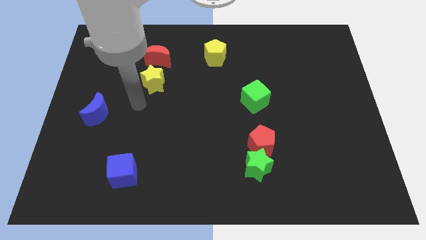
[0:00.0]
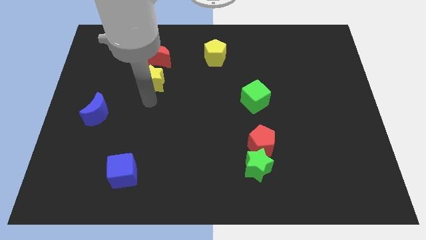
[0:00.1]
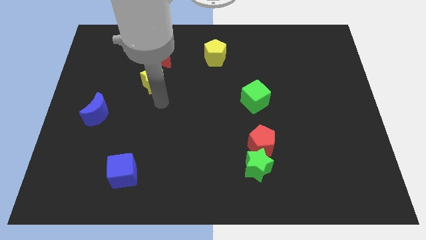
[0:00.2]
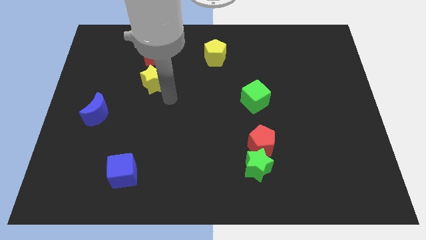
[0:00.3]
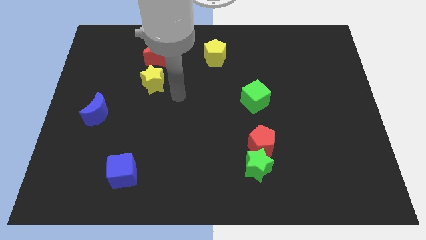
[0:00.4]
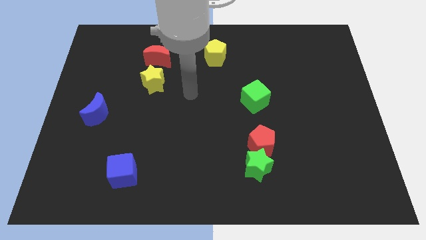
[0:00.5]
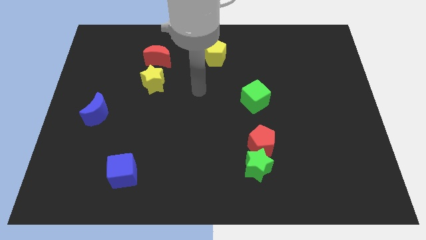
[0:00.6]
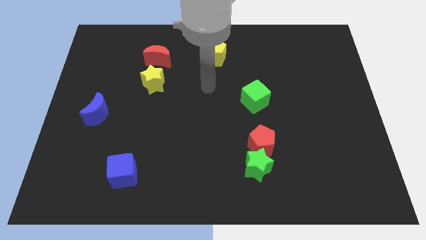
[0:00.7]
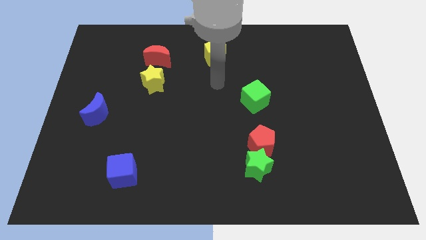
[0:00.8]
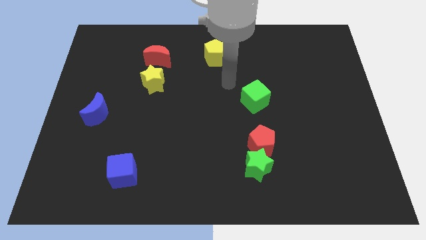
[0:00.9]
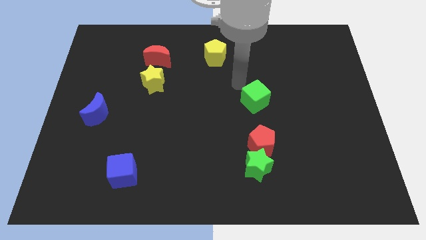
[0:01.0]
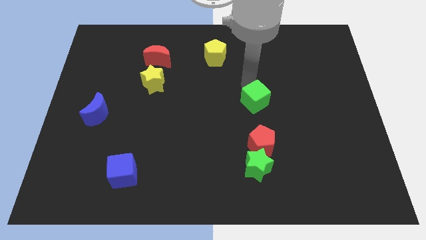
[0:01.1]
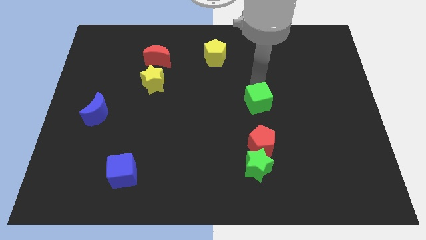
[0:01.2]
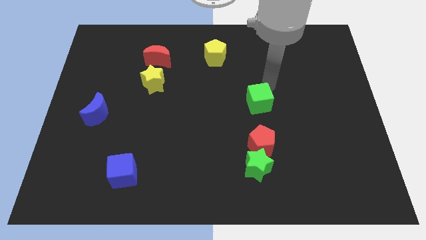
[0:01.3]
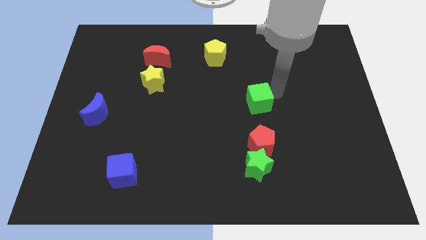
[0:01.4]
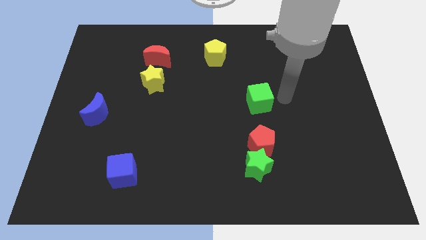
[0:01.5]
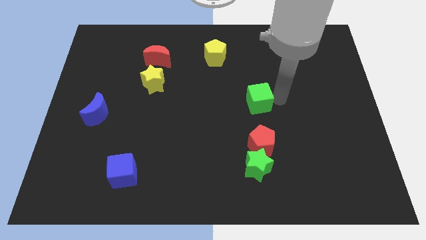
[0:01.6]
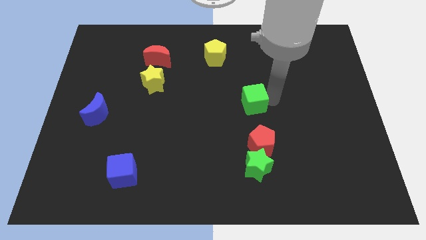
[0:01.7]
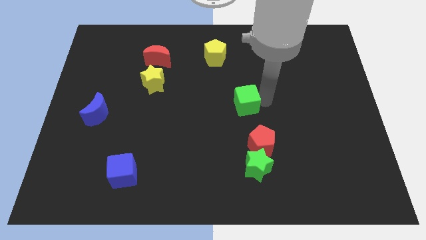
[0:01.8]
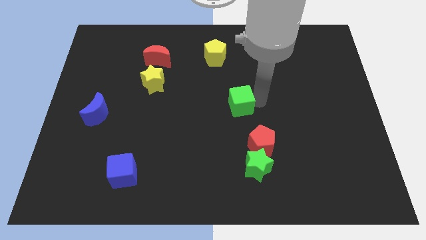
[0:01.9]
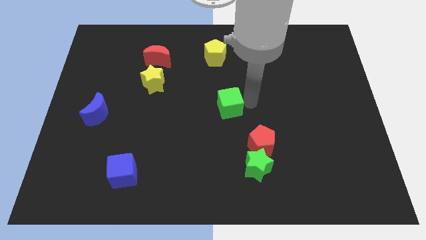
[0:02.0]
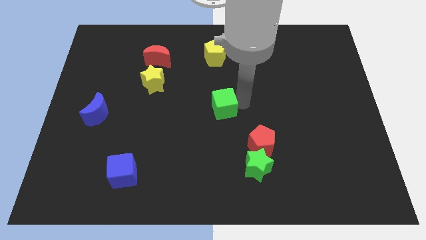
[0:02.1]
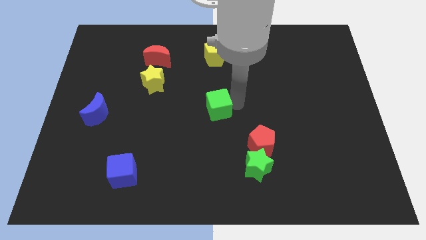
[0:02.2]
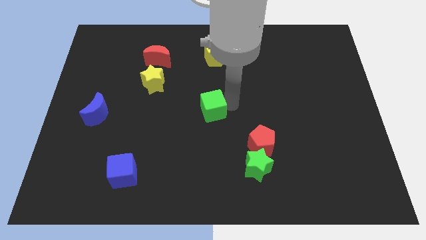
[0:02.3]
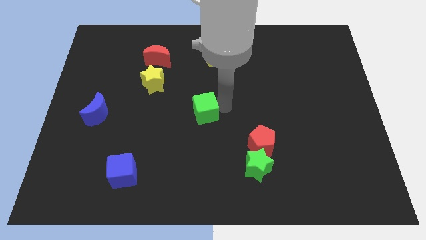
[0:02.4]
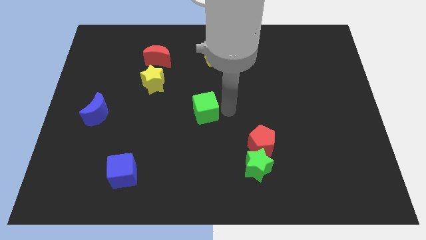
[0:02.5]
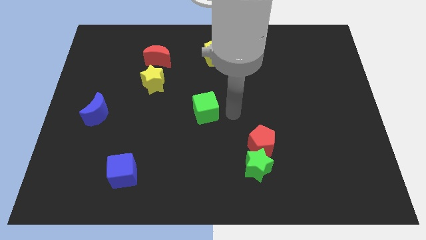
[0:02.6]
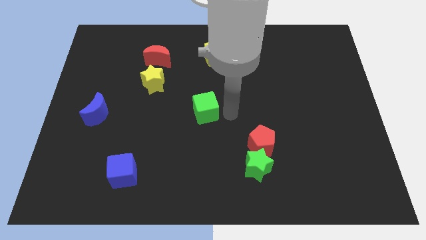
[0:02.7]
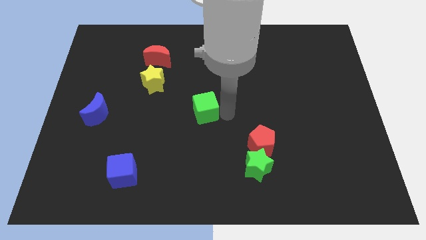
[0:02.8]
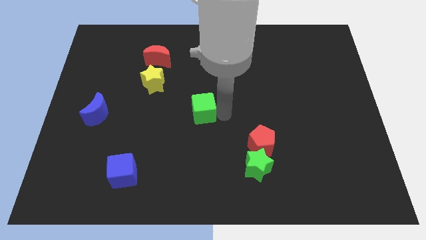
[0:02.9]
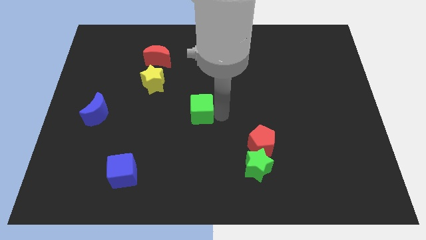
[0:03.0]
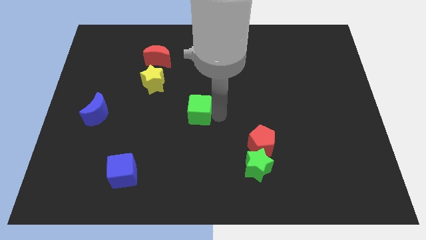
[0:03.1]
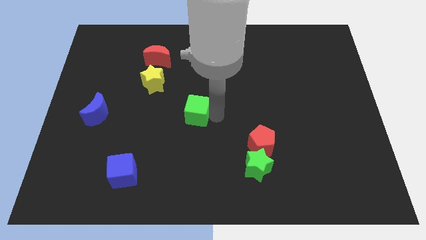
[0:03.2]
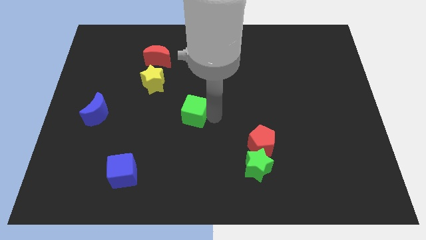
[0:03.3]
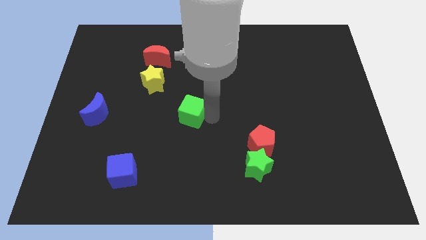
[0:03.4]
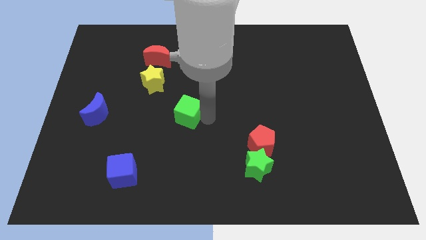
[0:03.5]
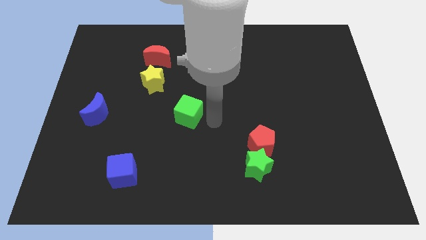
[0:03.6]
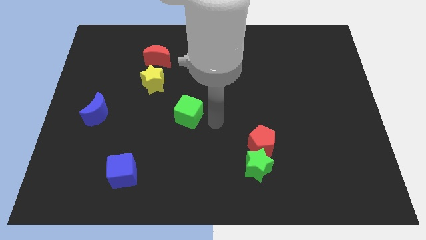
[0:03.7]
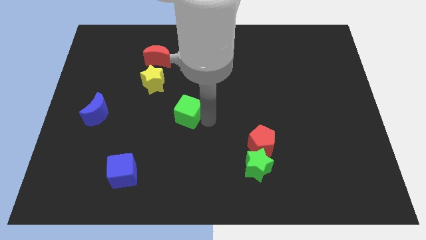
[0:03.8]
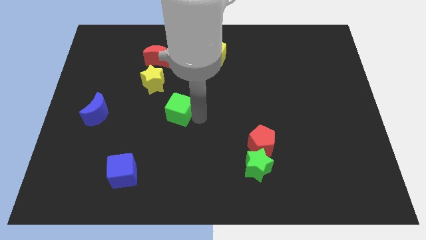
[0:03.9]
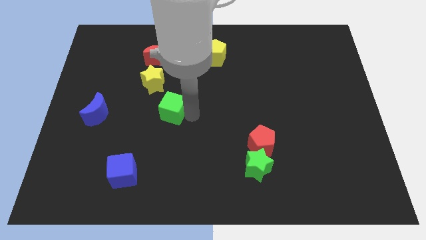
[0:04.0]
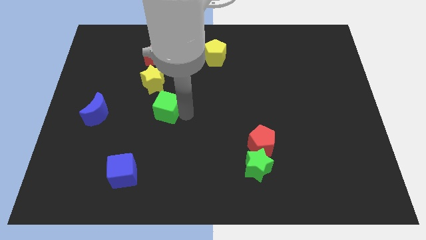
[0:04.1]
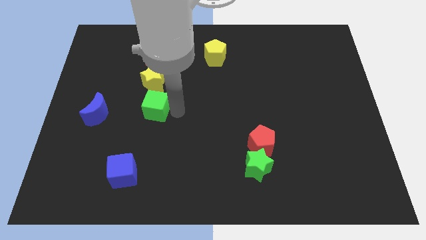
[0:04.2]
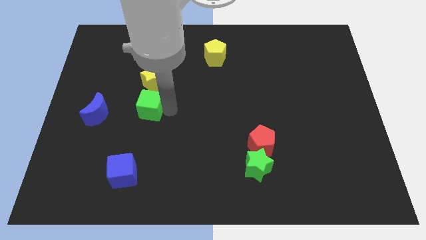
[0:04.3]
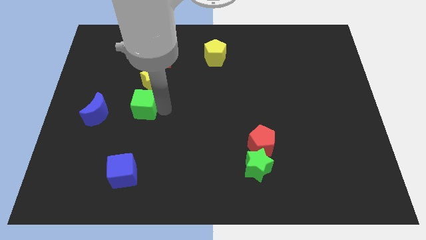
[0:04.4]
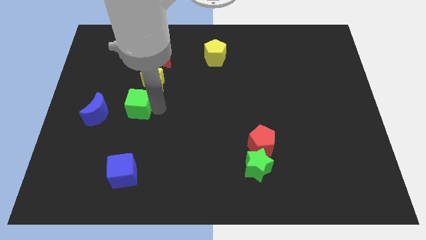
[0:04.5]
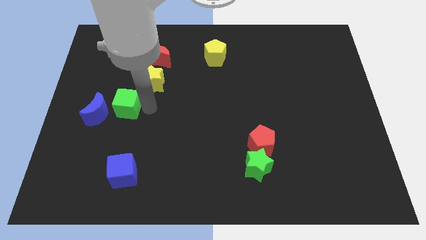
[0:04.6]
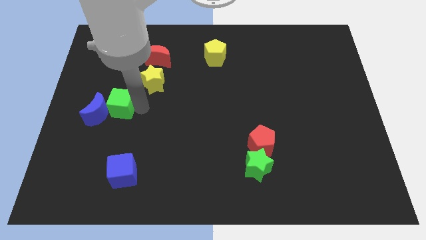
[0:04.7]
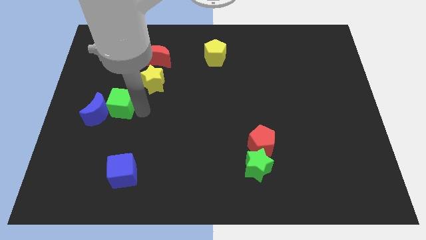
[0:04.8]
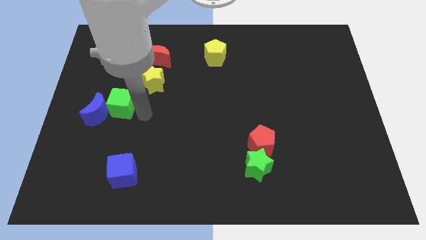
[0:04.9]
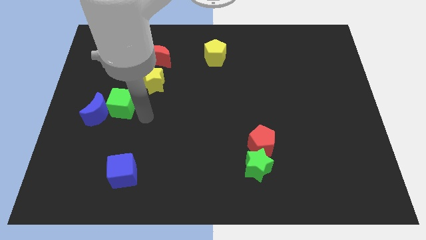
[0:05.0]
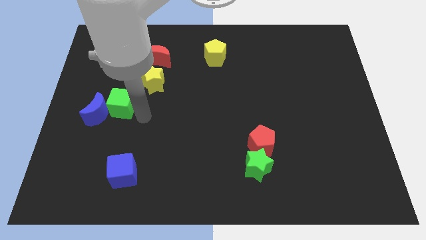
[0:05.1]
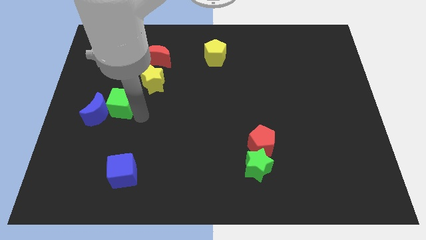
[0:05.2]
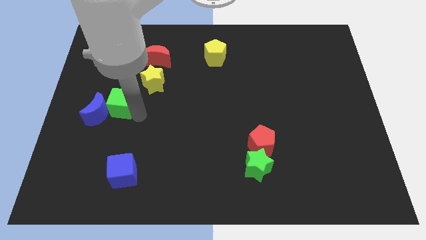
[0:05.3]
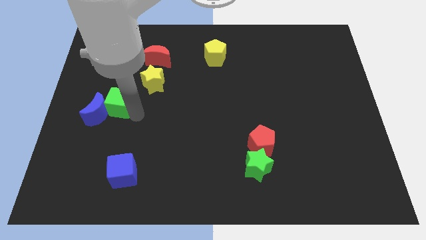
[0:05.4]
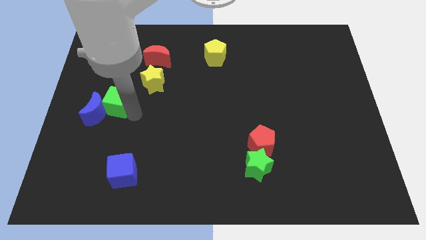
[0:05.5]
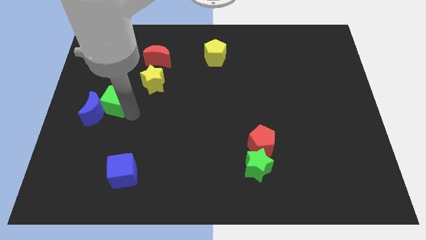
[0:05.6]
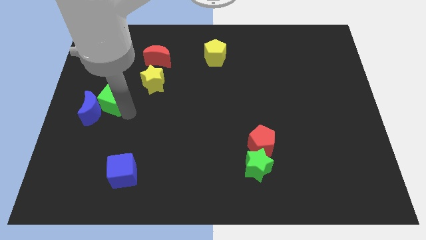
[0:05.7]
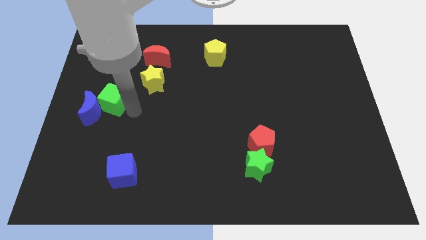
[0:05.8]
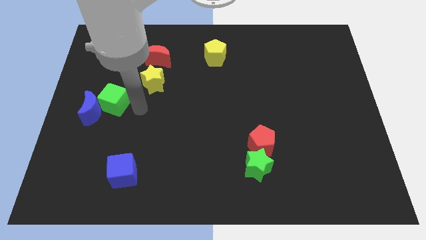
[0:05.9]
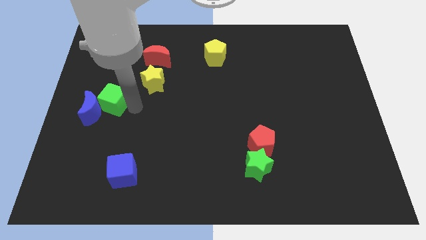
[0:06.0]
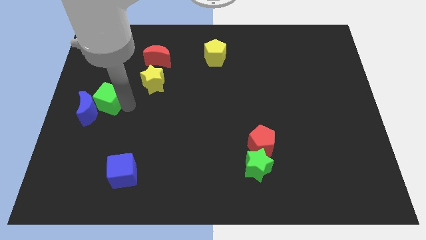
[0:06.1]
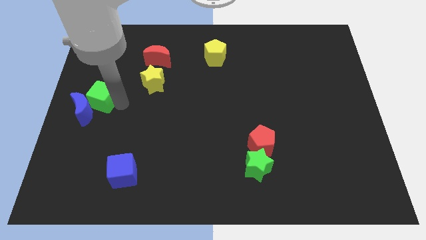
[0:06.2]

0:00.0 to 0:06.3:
move the green cube to the center left
